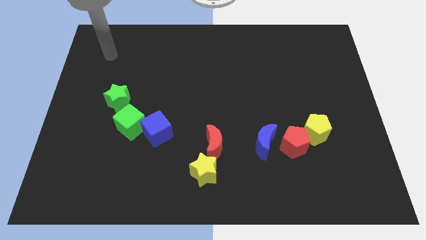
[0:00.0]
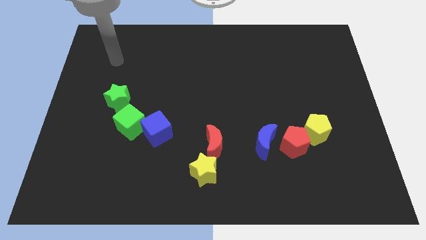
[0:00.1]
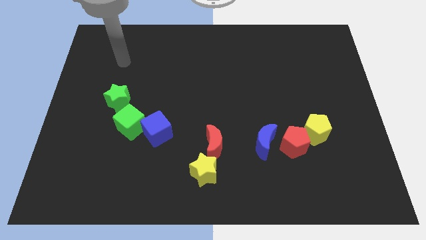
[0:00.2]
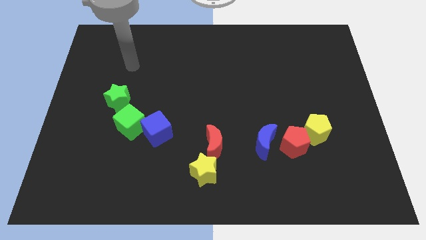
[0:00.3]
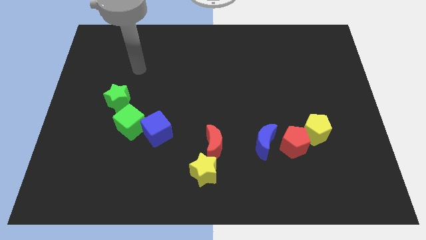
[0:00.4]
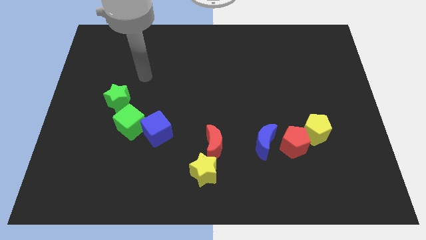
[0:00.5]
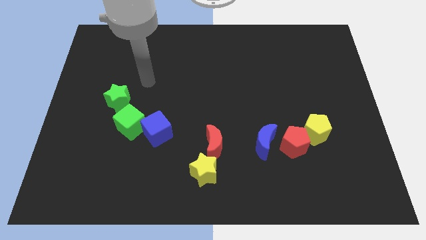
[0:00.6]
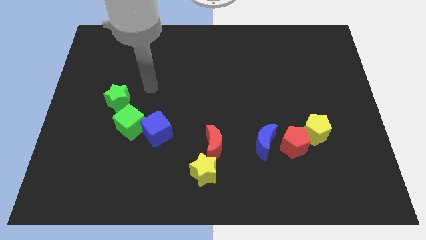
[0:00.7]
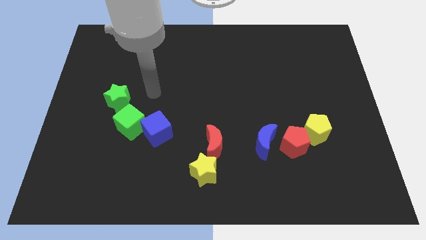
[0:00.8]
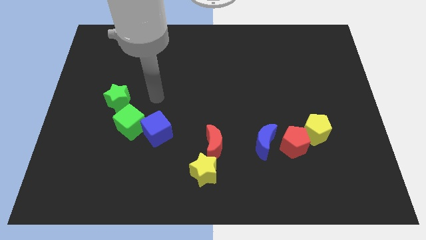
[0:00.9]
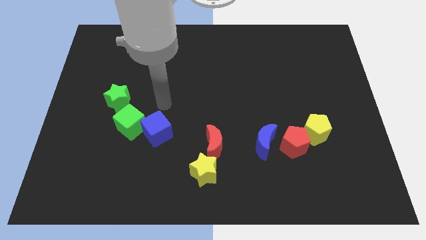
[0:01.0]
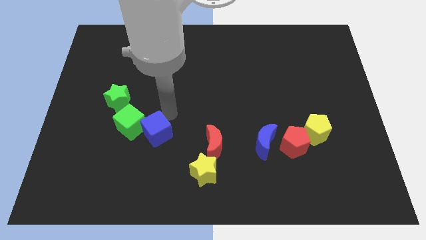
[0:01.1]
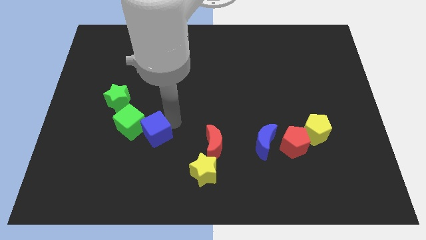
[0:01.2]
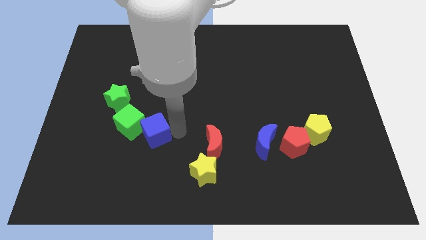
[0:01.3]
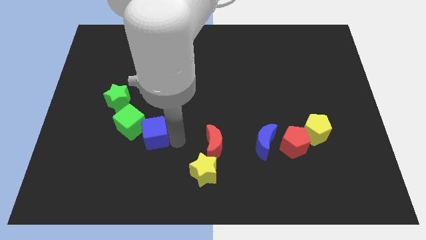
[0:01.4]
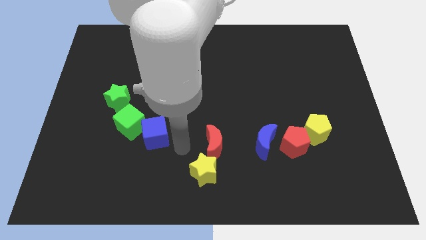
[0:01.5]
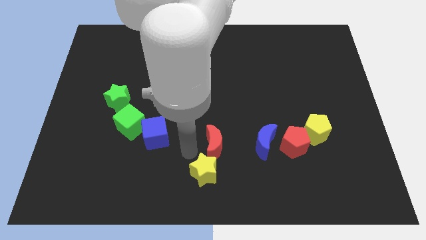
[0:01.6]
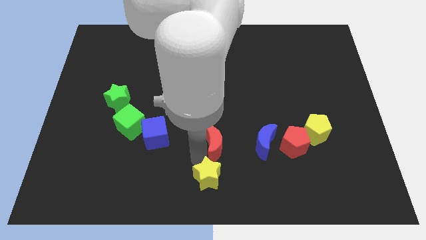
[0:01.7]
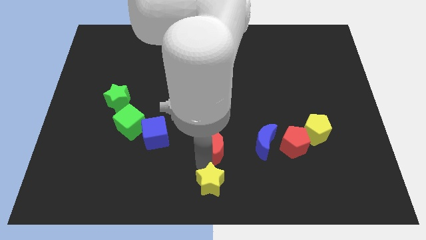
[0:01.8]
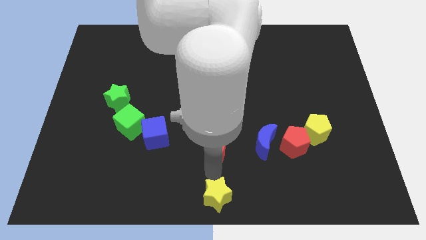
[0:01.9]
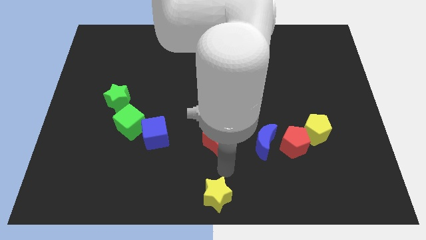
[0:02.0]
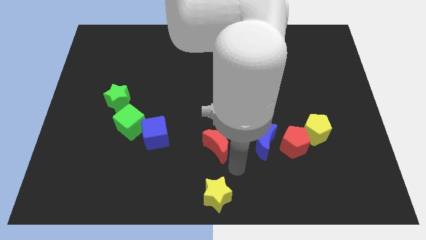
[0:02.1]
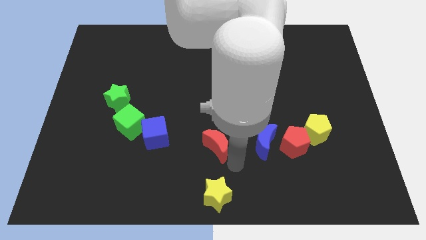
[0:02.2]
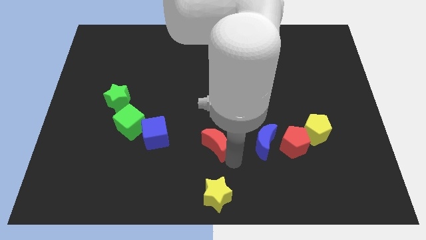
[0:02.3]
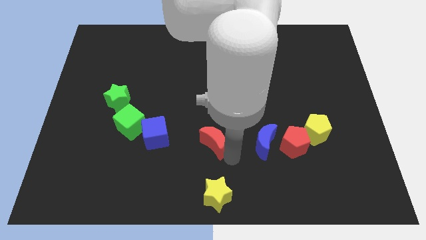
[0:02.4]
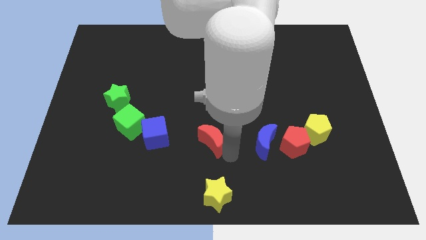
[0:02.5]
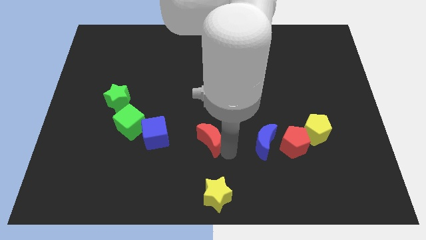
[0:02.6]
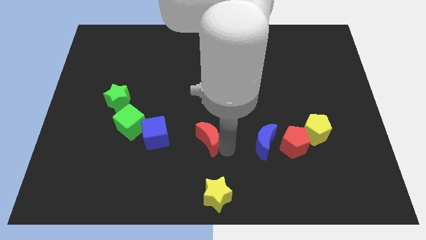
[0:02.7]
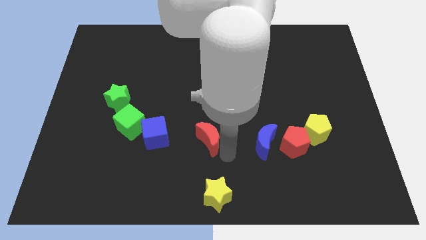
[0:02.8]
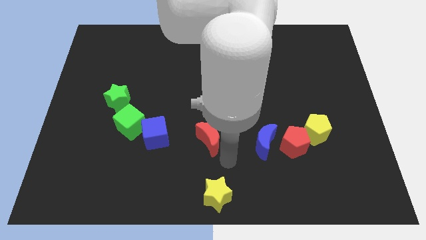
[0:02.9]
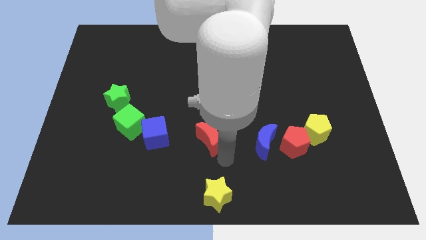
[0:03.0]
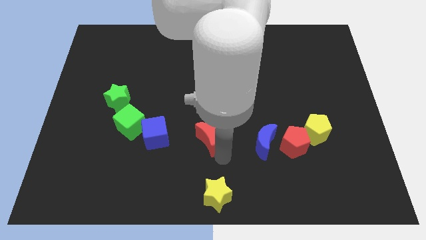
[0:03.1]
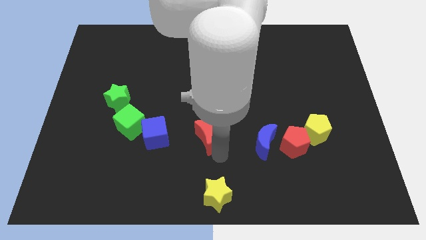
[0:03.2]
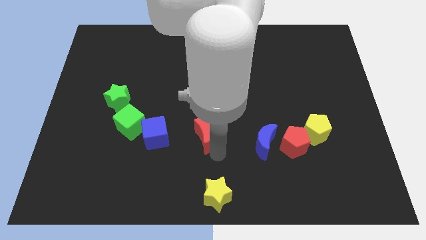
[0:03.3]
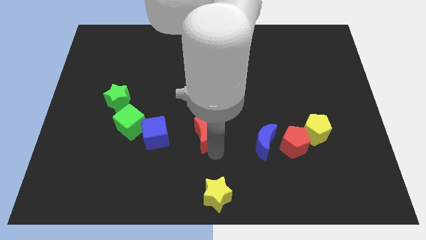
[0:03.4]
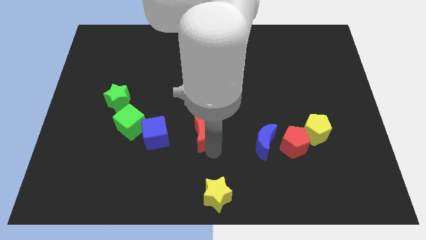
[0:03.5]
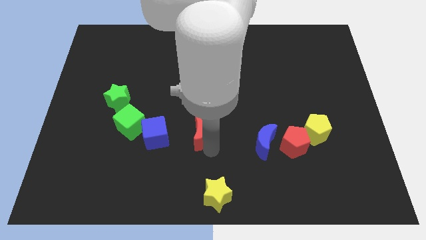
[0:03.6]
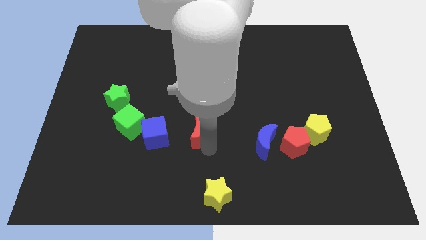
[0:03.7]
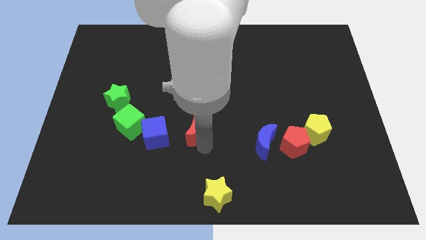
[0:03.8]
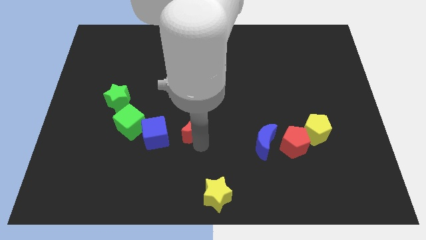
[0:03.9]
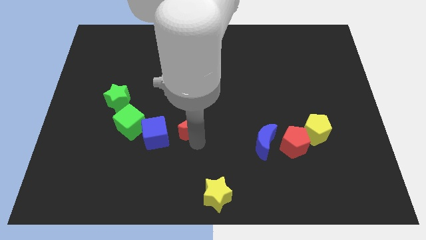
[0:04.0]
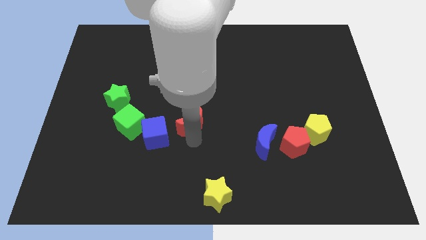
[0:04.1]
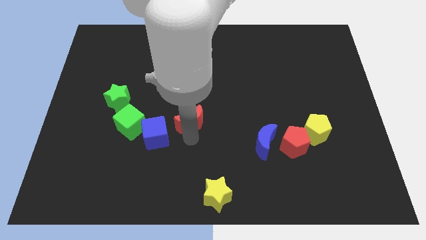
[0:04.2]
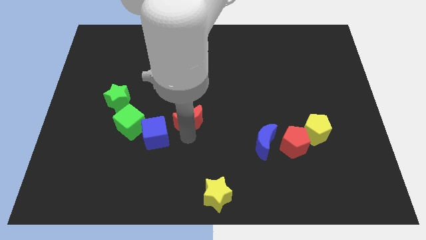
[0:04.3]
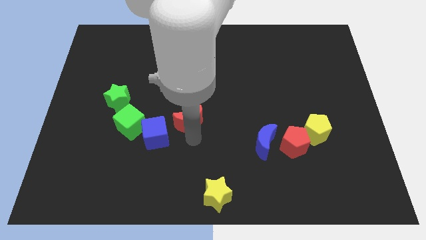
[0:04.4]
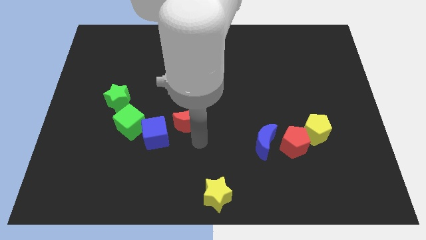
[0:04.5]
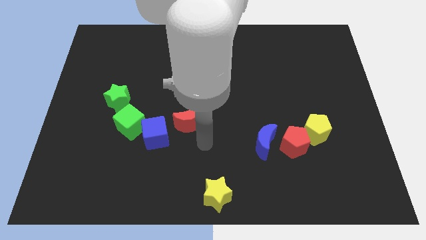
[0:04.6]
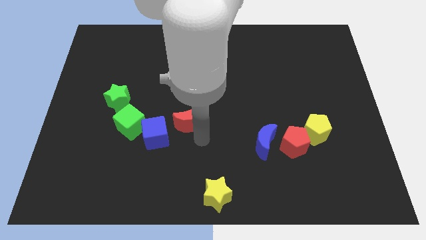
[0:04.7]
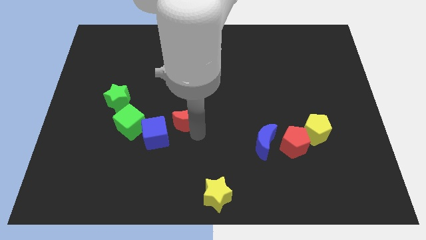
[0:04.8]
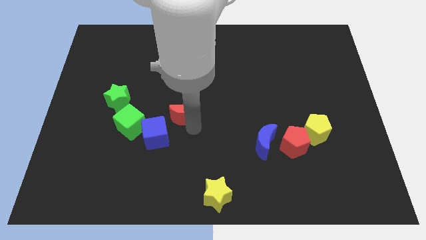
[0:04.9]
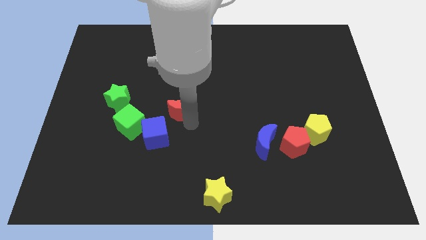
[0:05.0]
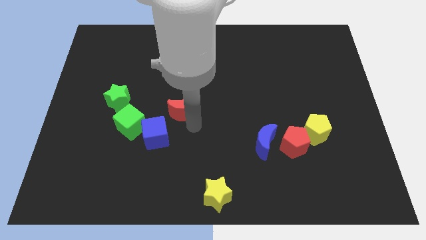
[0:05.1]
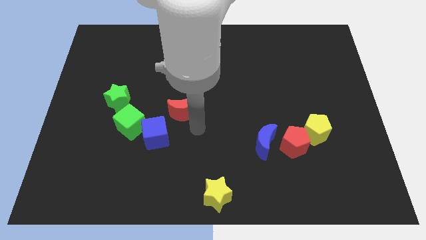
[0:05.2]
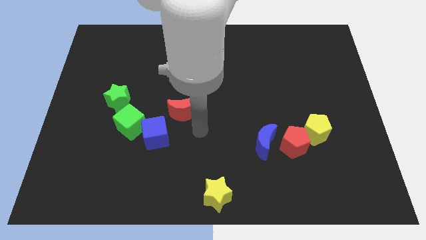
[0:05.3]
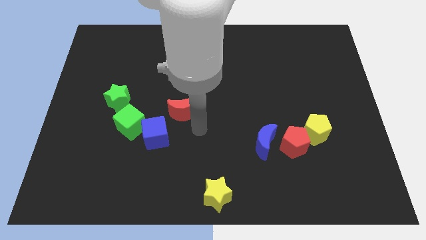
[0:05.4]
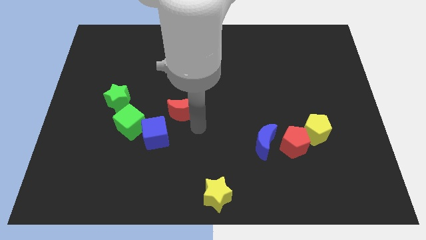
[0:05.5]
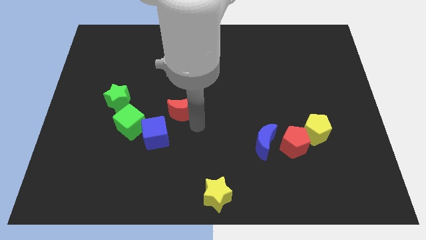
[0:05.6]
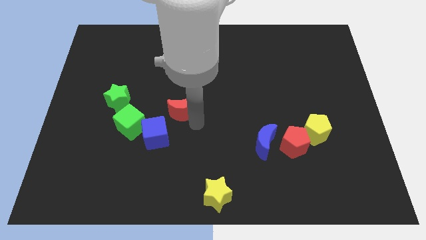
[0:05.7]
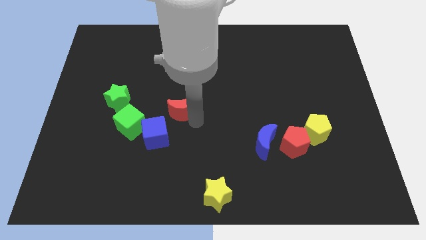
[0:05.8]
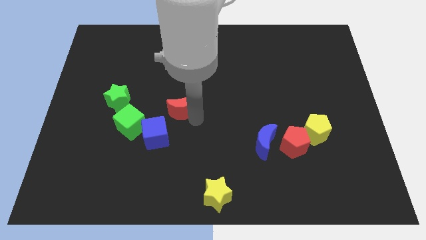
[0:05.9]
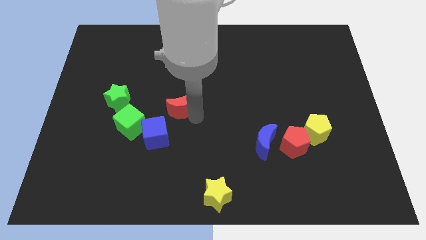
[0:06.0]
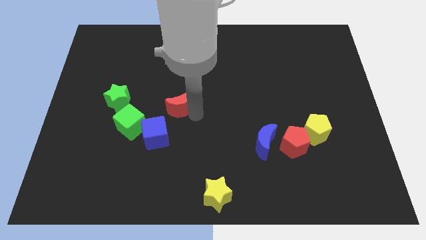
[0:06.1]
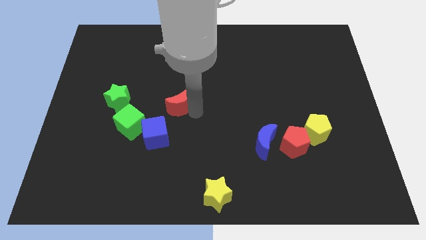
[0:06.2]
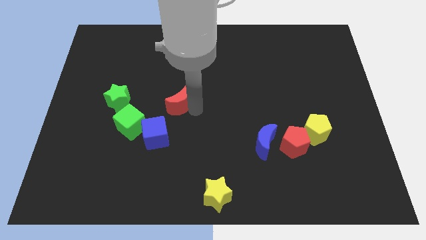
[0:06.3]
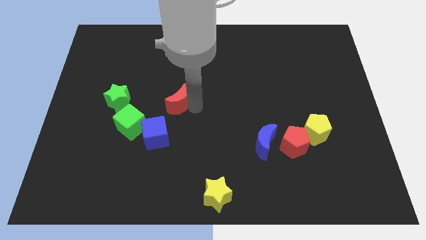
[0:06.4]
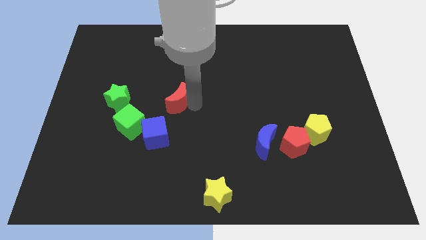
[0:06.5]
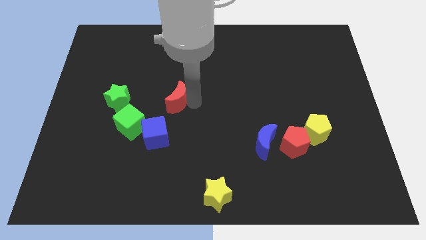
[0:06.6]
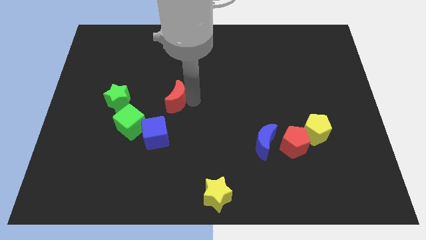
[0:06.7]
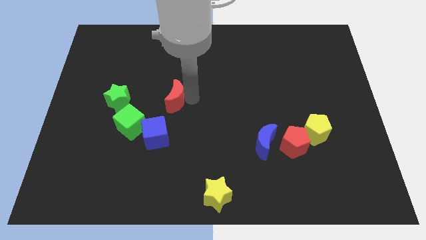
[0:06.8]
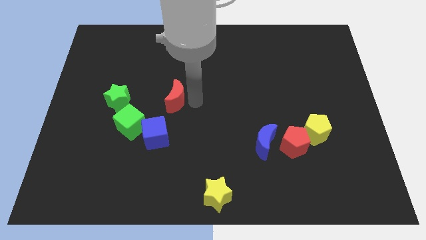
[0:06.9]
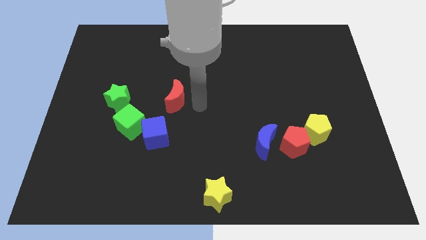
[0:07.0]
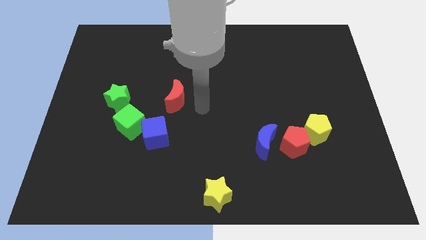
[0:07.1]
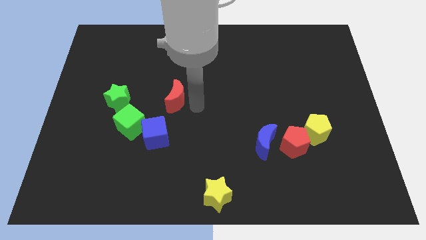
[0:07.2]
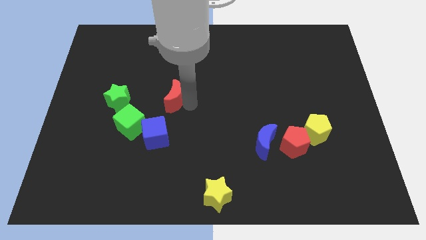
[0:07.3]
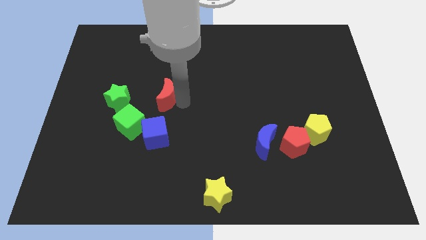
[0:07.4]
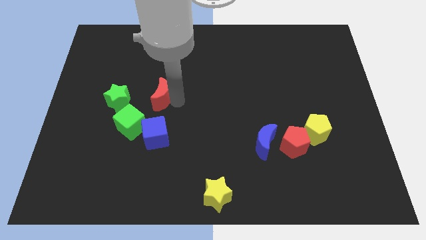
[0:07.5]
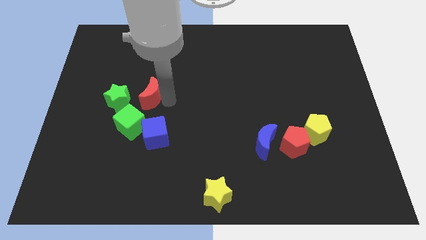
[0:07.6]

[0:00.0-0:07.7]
move the red moon up and left

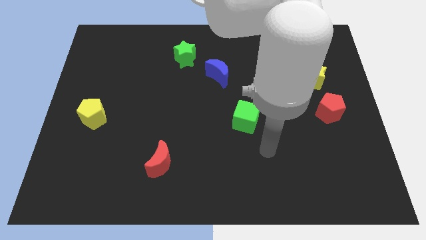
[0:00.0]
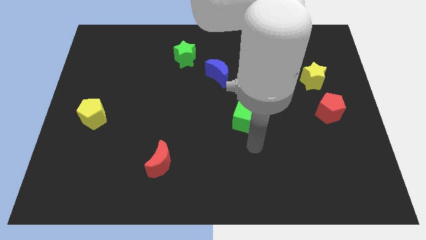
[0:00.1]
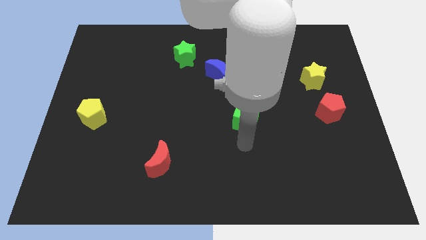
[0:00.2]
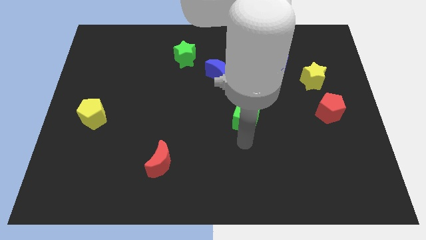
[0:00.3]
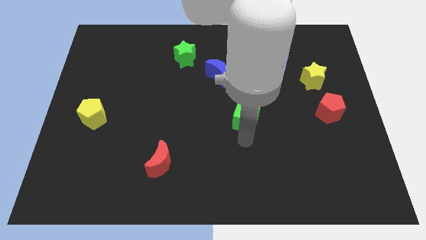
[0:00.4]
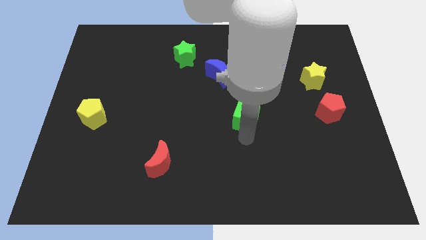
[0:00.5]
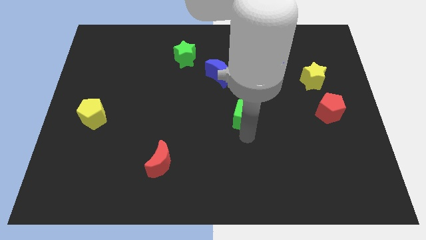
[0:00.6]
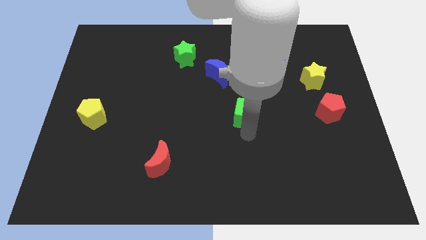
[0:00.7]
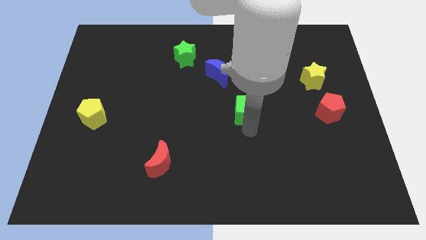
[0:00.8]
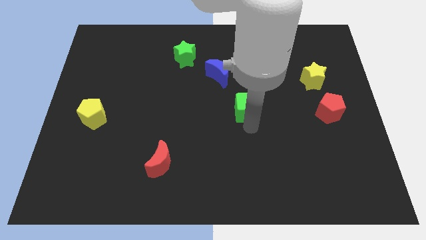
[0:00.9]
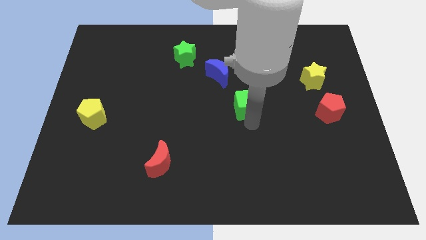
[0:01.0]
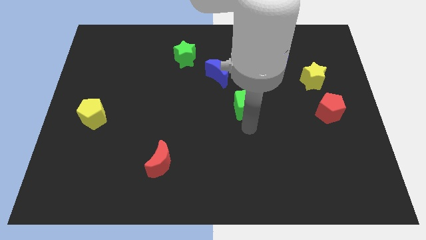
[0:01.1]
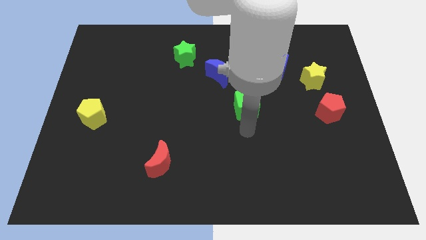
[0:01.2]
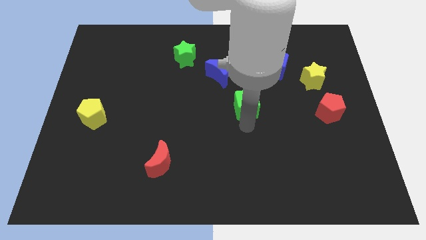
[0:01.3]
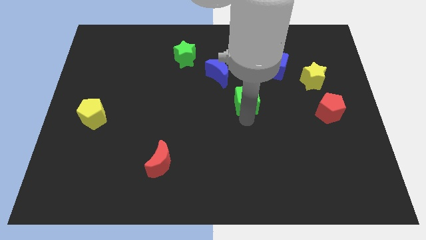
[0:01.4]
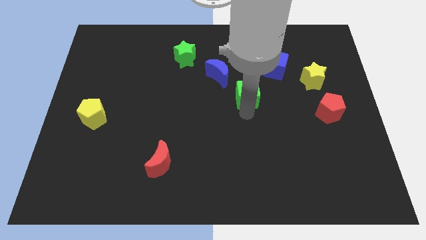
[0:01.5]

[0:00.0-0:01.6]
slightly push the green cube up
